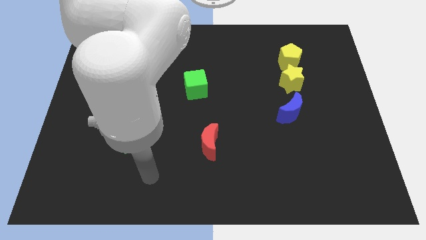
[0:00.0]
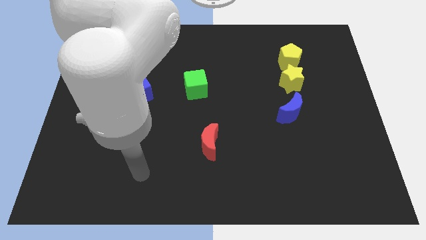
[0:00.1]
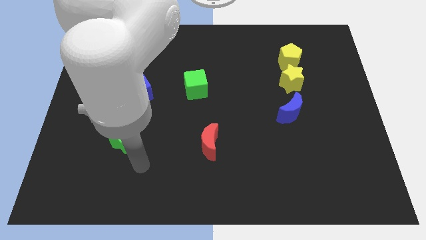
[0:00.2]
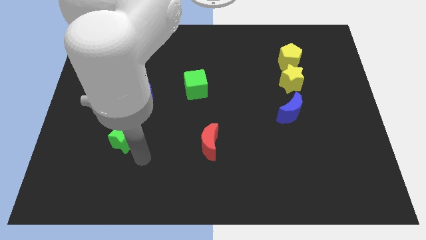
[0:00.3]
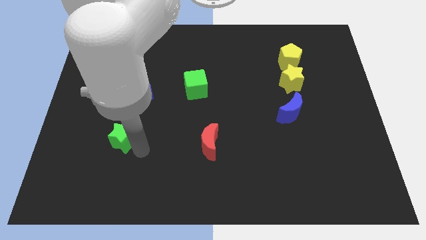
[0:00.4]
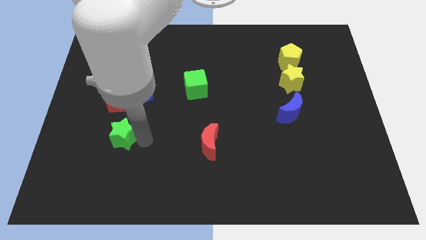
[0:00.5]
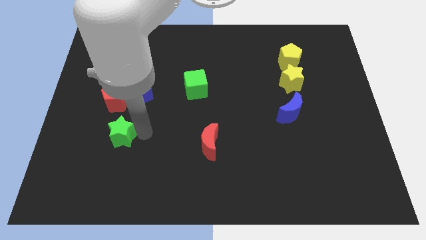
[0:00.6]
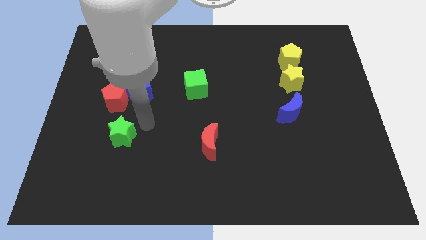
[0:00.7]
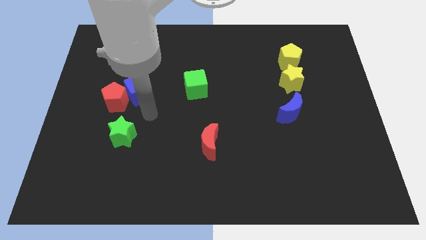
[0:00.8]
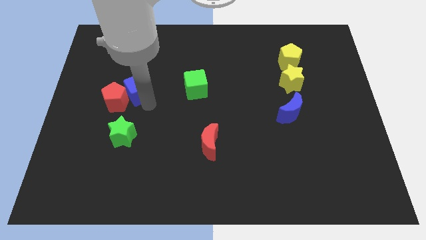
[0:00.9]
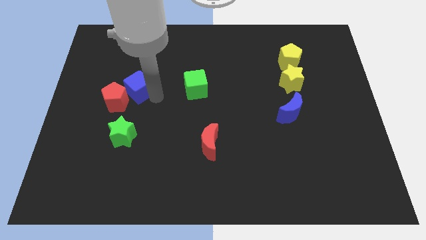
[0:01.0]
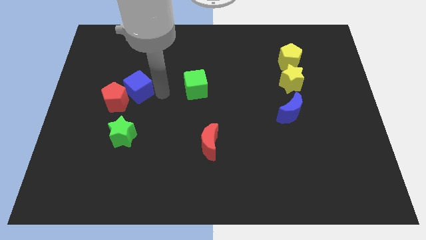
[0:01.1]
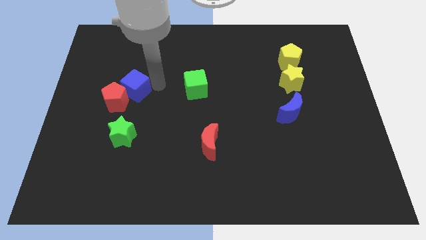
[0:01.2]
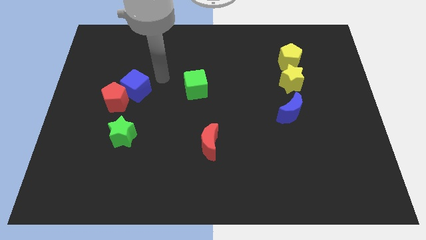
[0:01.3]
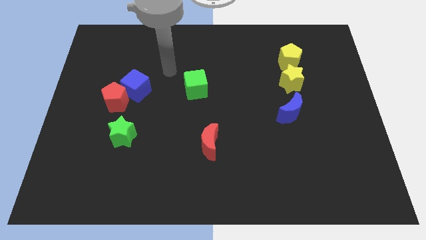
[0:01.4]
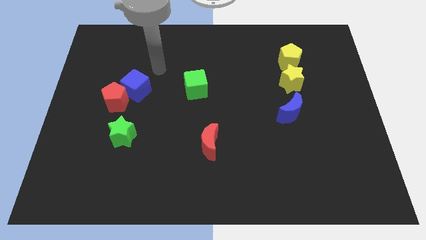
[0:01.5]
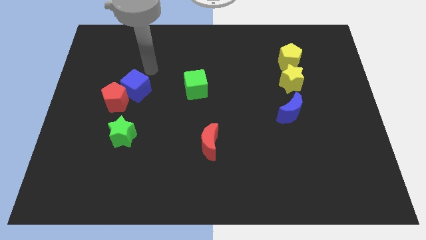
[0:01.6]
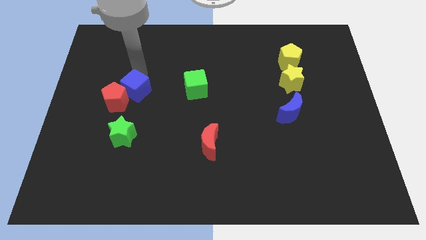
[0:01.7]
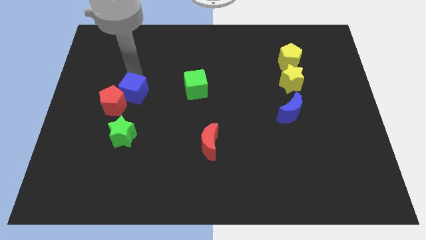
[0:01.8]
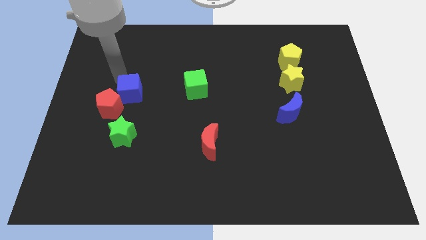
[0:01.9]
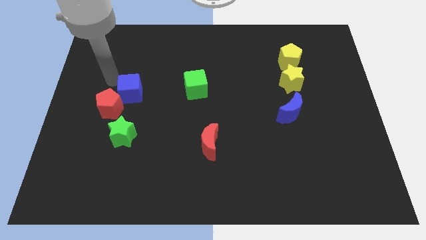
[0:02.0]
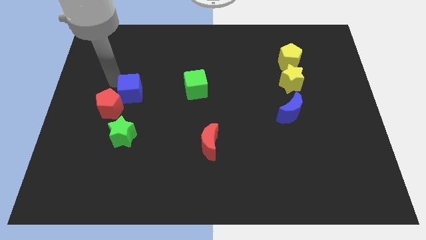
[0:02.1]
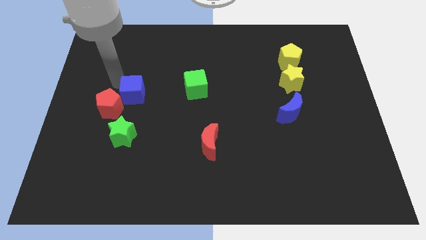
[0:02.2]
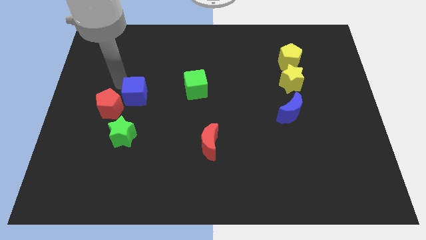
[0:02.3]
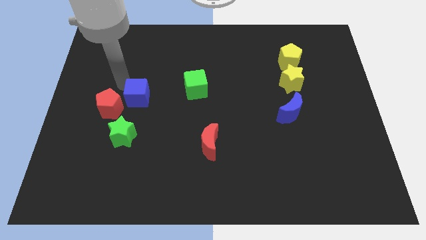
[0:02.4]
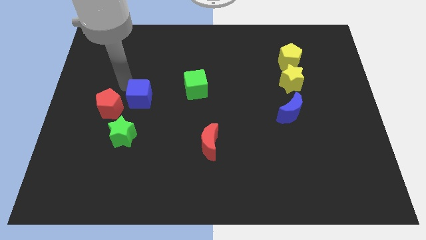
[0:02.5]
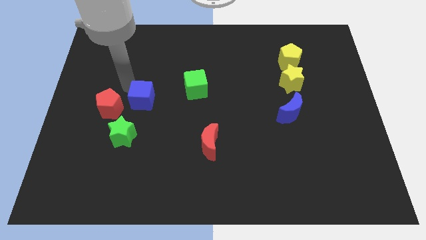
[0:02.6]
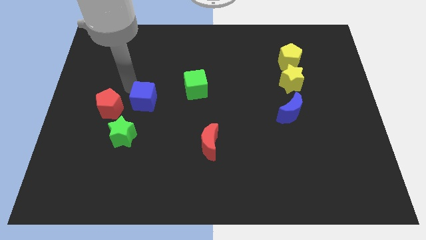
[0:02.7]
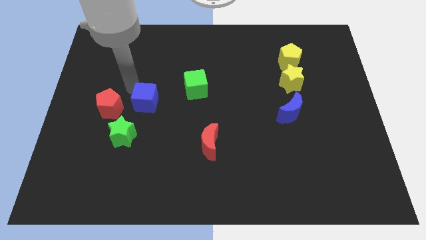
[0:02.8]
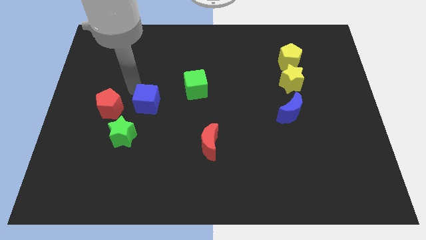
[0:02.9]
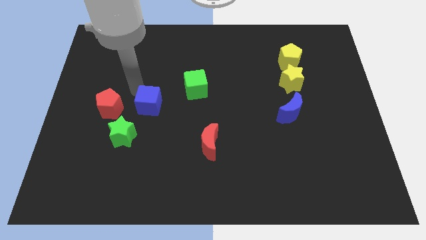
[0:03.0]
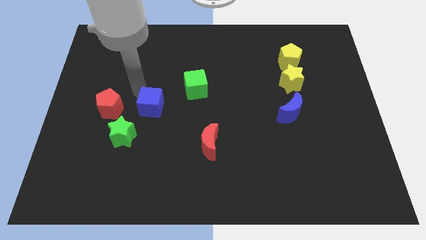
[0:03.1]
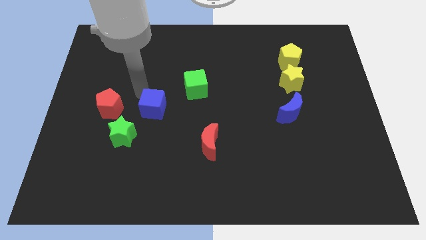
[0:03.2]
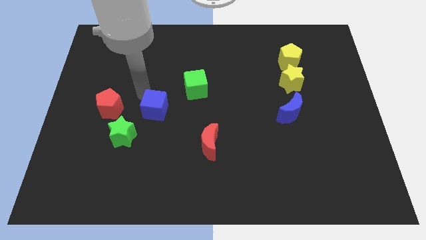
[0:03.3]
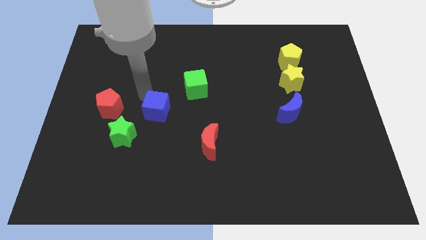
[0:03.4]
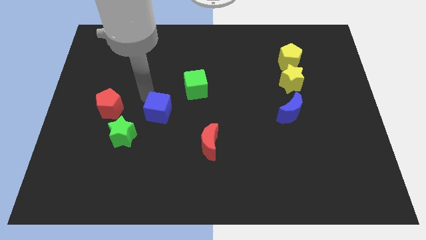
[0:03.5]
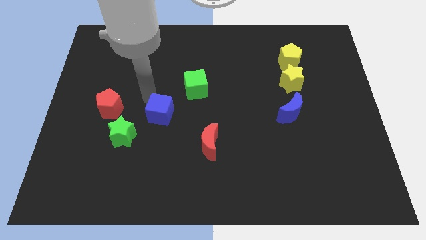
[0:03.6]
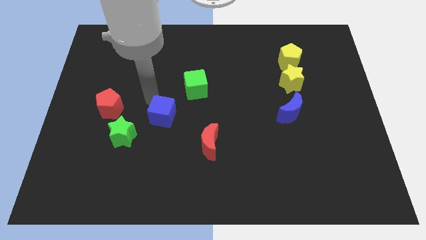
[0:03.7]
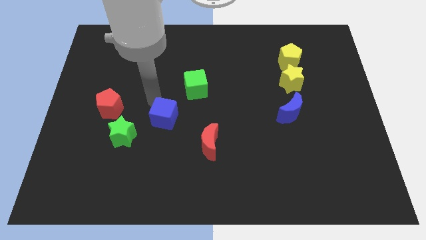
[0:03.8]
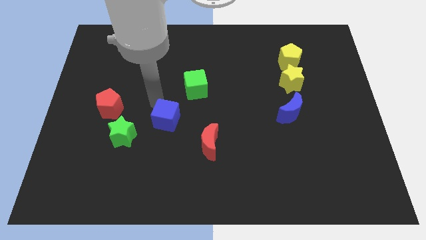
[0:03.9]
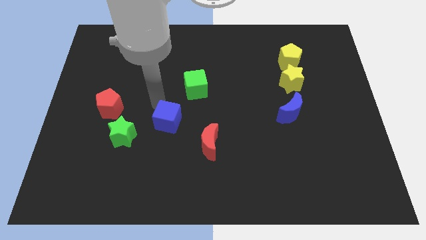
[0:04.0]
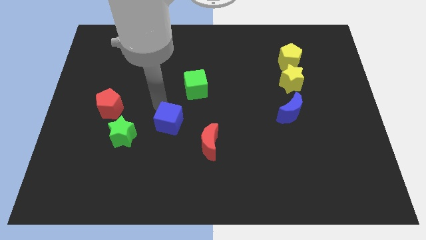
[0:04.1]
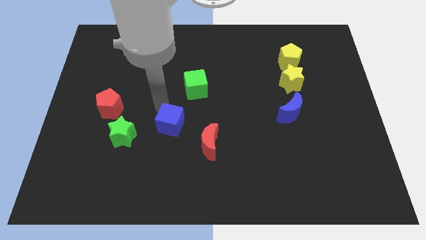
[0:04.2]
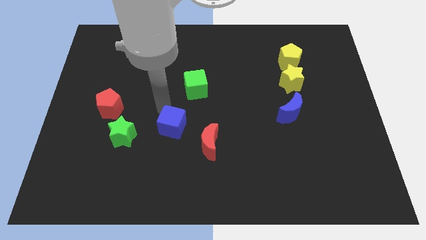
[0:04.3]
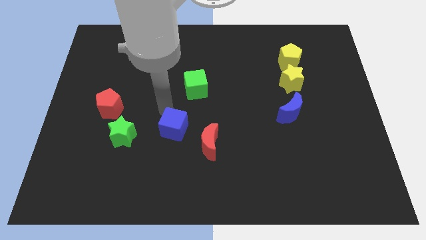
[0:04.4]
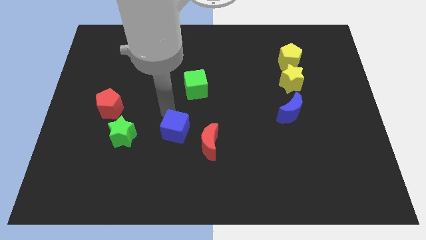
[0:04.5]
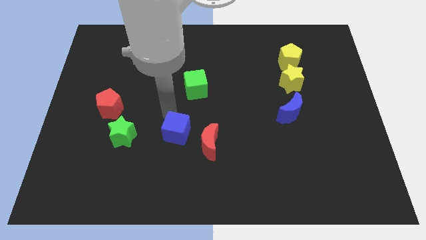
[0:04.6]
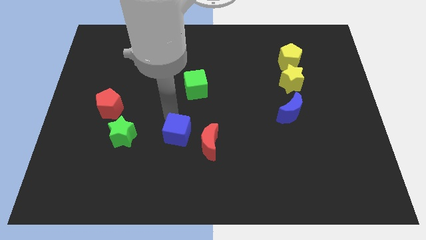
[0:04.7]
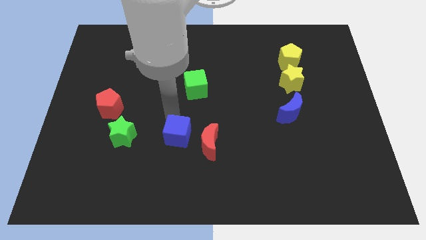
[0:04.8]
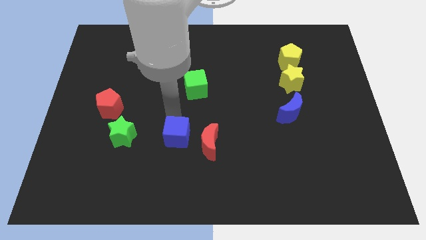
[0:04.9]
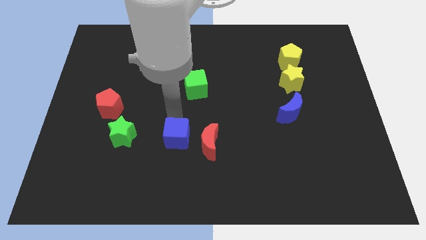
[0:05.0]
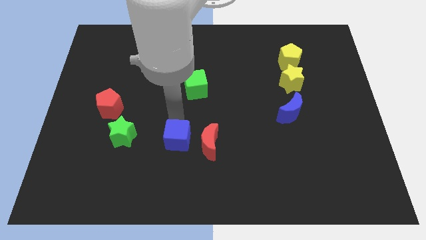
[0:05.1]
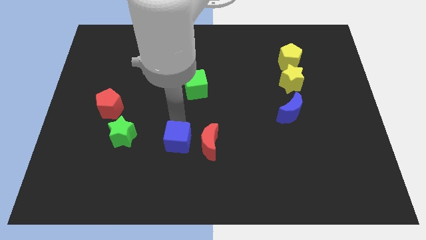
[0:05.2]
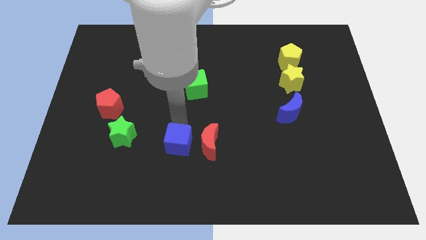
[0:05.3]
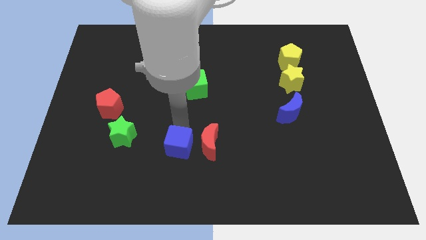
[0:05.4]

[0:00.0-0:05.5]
move the blue cube next to the red moon

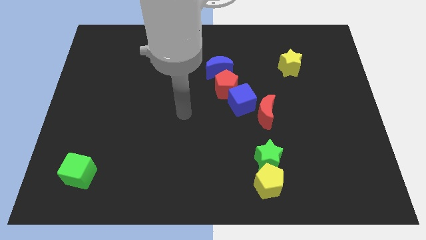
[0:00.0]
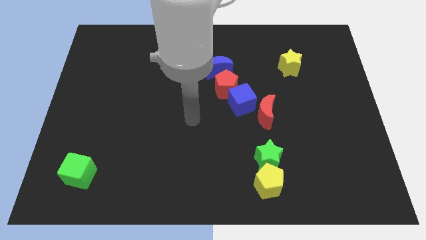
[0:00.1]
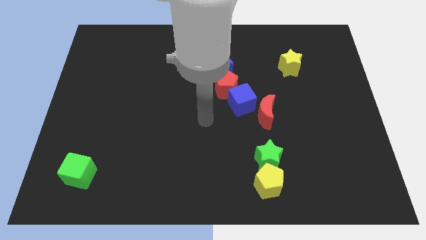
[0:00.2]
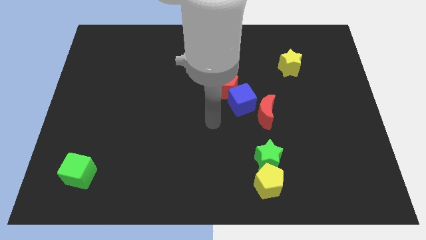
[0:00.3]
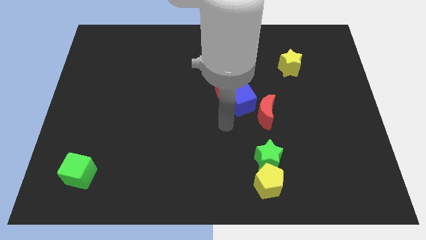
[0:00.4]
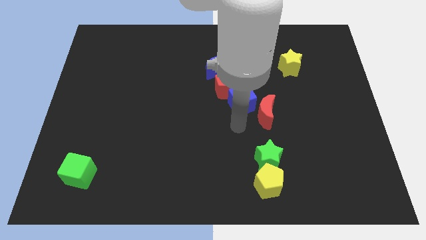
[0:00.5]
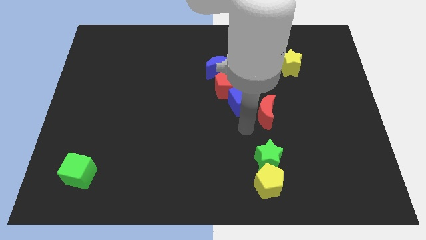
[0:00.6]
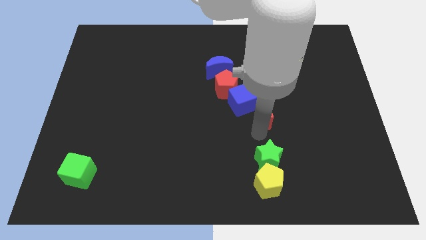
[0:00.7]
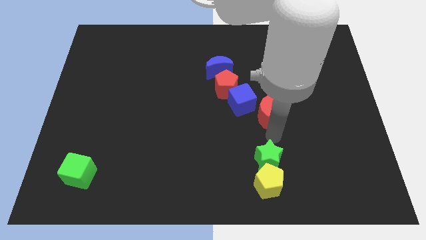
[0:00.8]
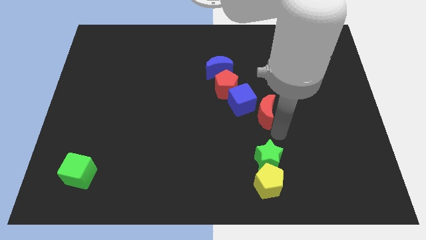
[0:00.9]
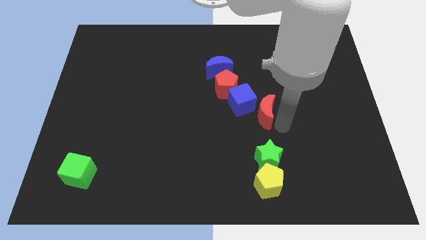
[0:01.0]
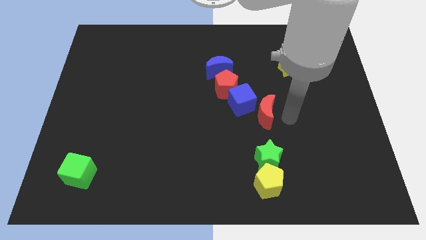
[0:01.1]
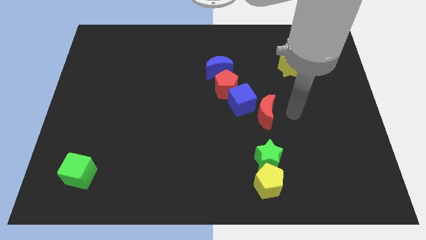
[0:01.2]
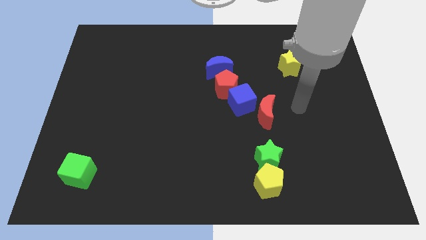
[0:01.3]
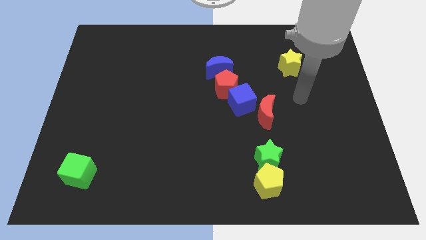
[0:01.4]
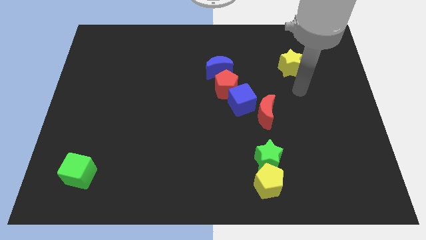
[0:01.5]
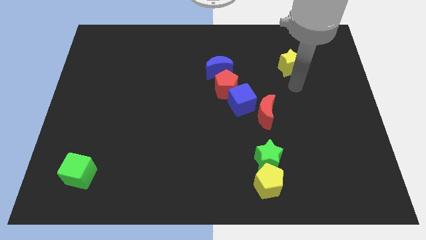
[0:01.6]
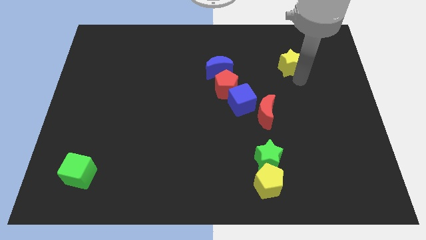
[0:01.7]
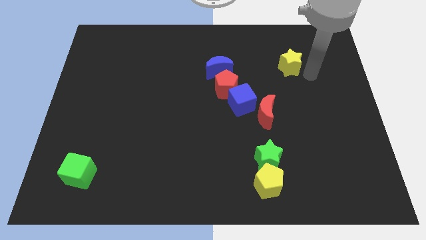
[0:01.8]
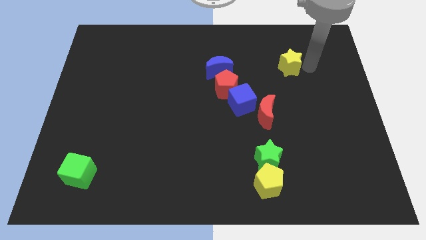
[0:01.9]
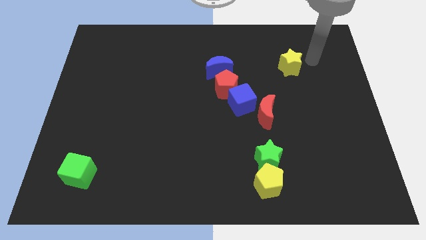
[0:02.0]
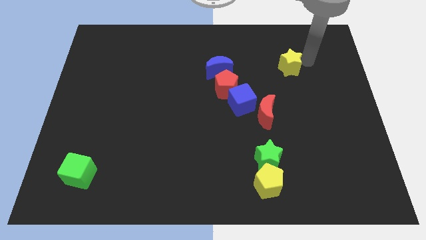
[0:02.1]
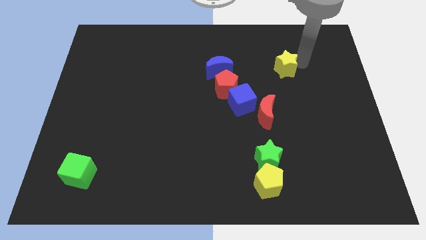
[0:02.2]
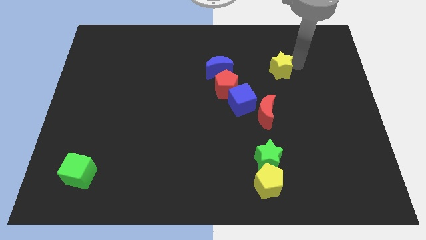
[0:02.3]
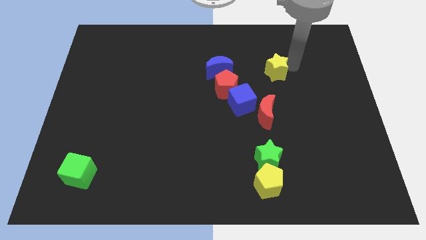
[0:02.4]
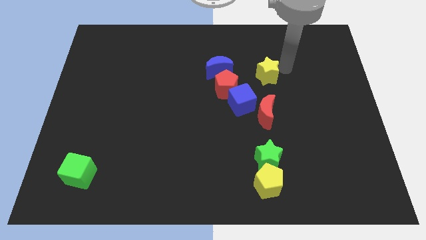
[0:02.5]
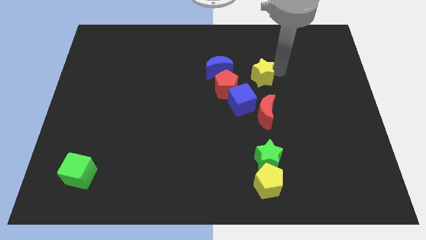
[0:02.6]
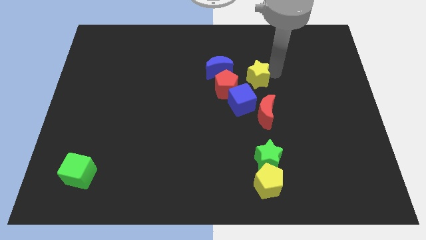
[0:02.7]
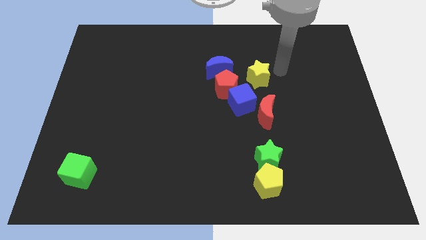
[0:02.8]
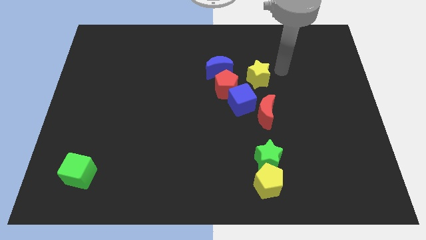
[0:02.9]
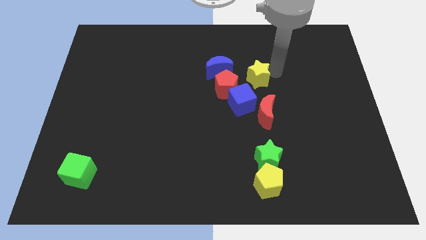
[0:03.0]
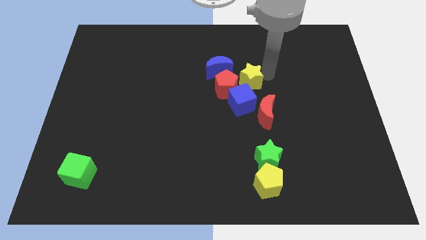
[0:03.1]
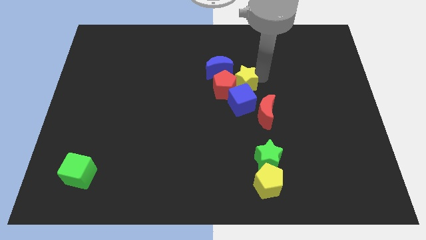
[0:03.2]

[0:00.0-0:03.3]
push the yellow star next to the red pentagon
